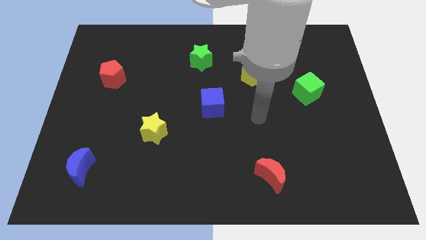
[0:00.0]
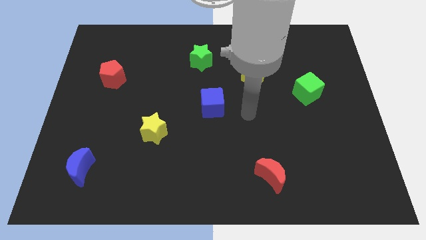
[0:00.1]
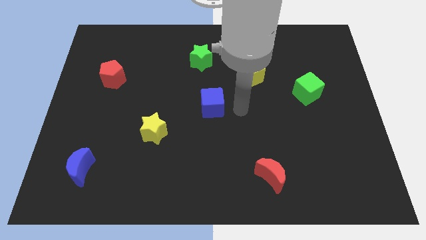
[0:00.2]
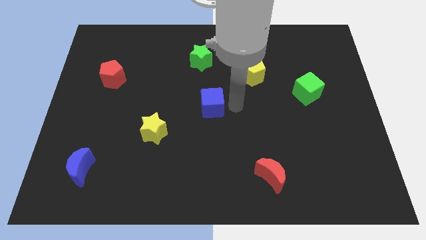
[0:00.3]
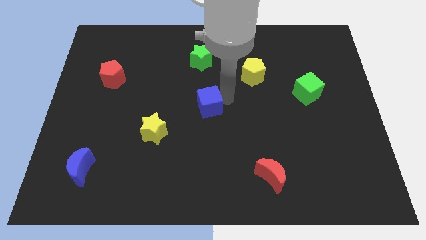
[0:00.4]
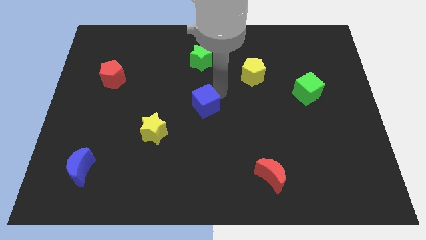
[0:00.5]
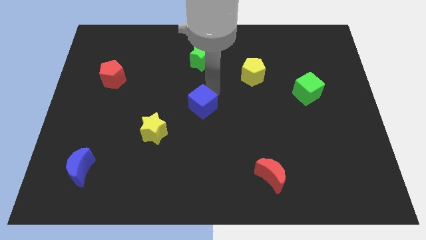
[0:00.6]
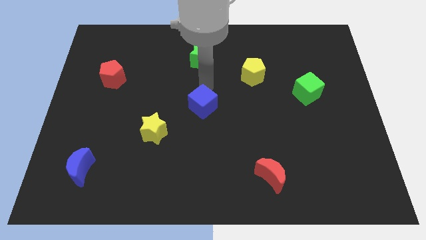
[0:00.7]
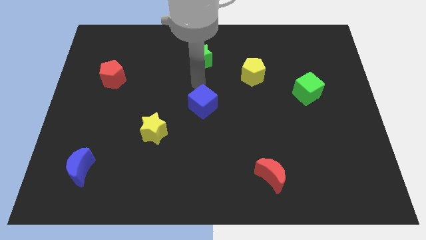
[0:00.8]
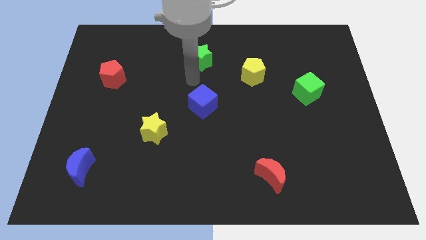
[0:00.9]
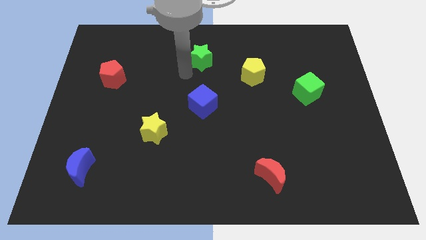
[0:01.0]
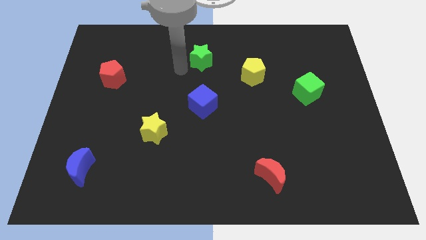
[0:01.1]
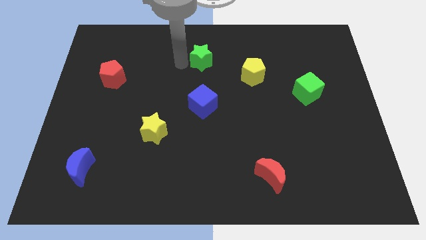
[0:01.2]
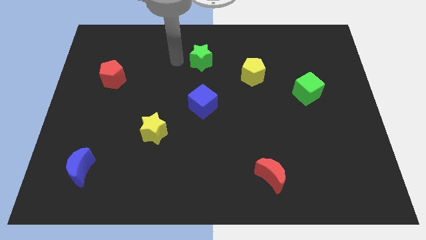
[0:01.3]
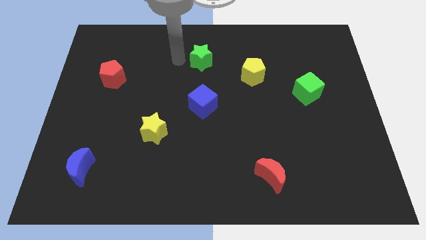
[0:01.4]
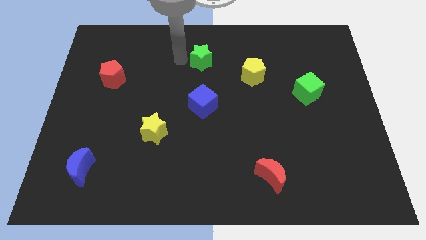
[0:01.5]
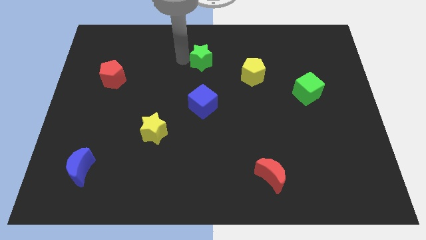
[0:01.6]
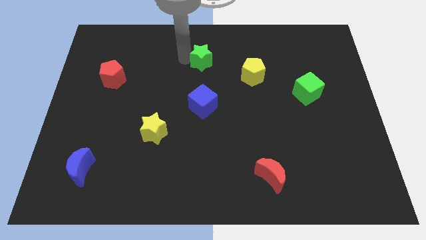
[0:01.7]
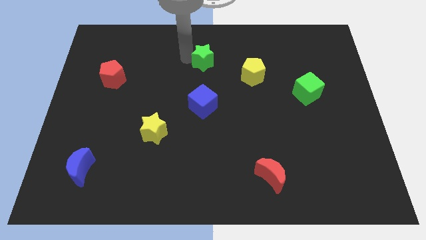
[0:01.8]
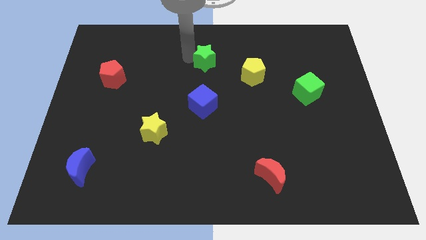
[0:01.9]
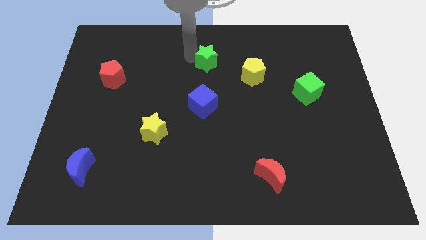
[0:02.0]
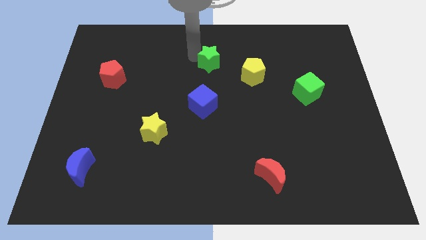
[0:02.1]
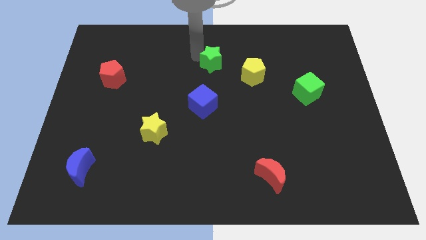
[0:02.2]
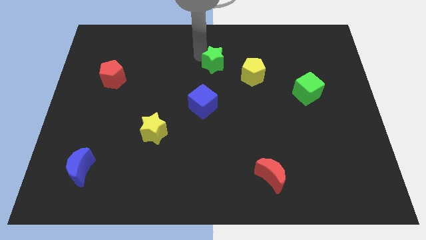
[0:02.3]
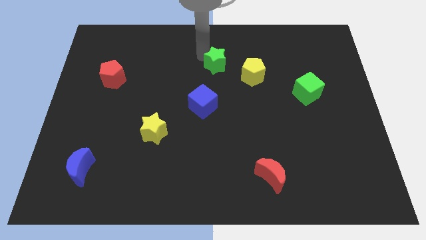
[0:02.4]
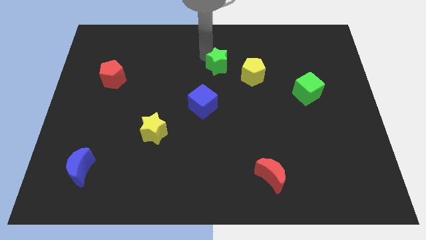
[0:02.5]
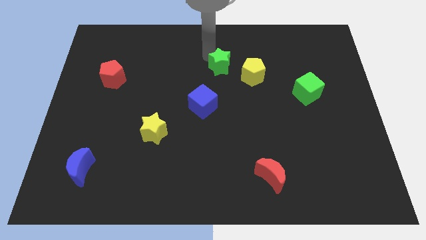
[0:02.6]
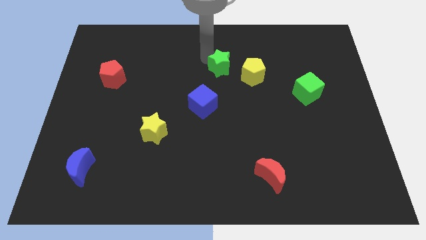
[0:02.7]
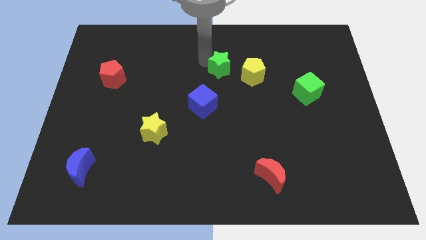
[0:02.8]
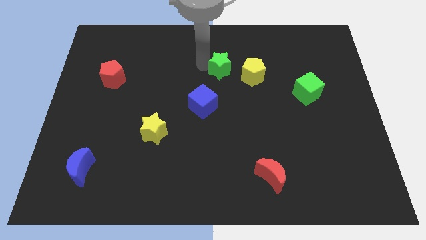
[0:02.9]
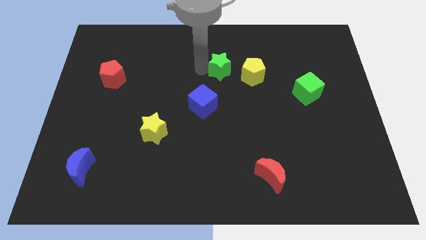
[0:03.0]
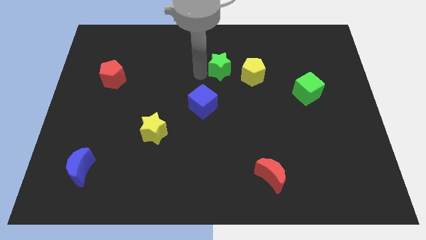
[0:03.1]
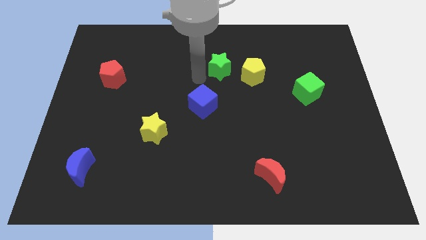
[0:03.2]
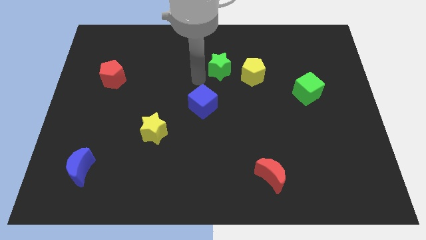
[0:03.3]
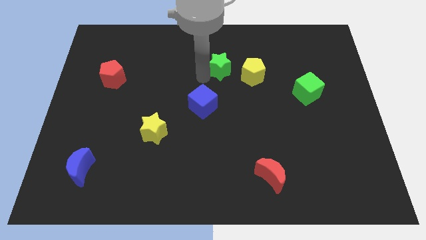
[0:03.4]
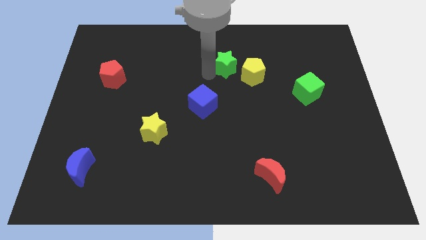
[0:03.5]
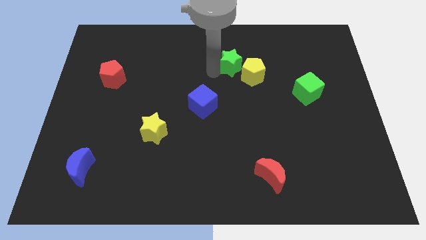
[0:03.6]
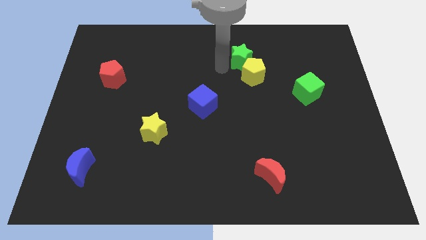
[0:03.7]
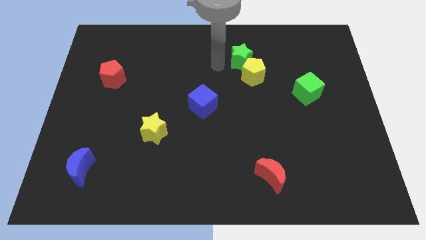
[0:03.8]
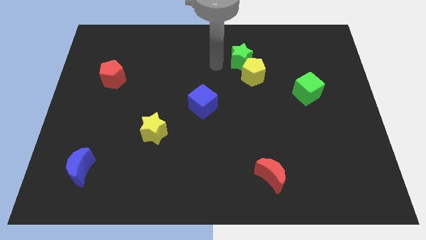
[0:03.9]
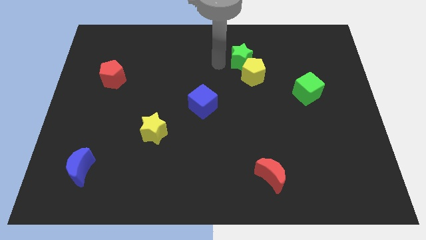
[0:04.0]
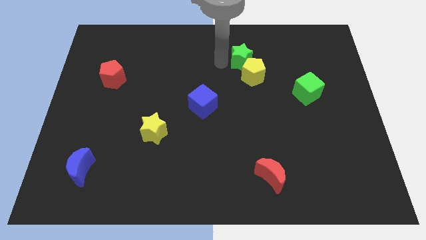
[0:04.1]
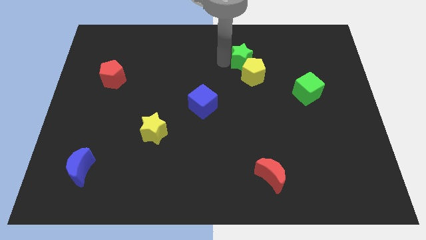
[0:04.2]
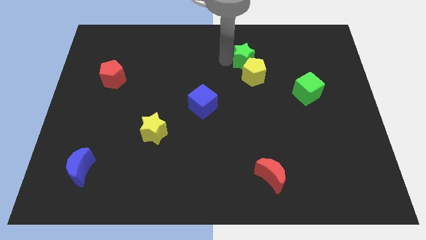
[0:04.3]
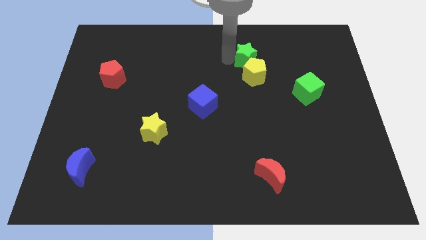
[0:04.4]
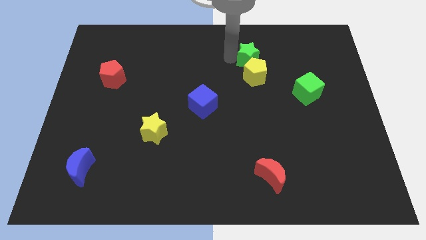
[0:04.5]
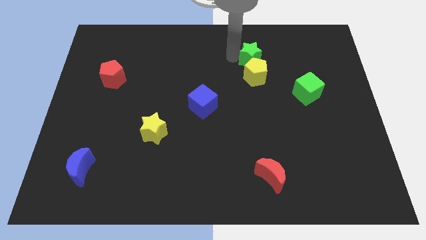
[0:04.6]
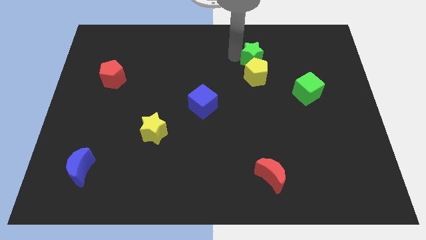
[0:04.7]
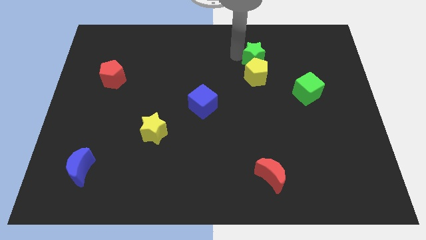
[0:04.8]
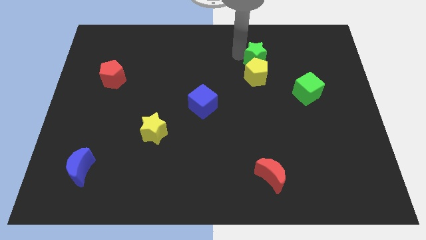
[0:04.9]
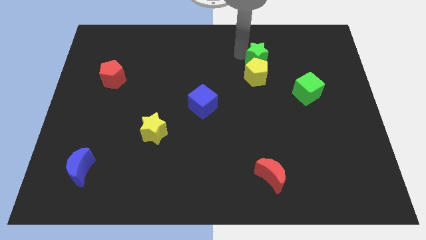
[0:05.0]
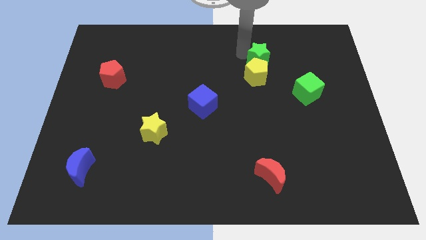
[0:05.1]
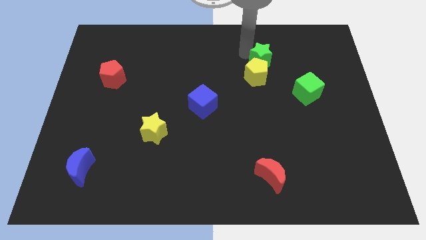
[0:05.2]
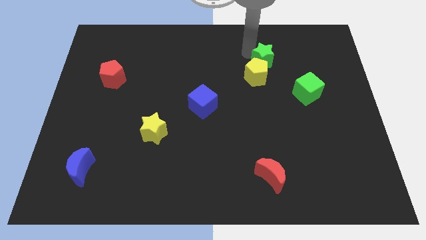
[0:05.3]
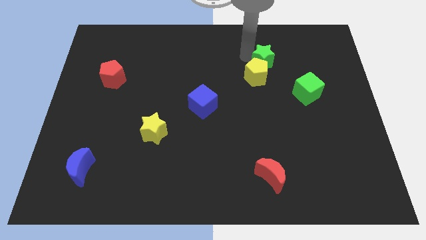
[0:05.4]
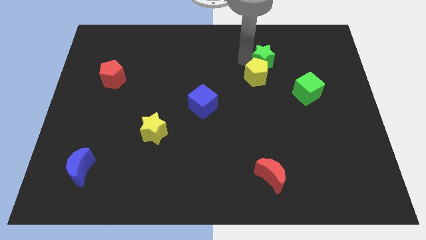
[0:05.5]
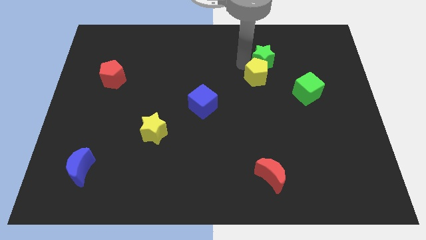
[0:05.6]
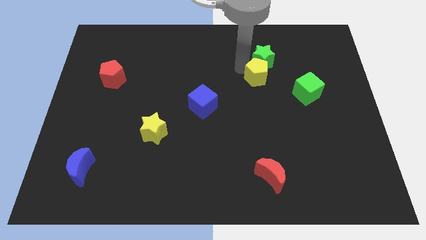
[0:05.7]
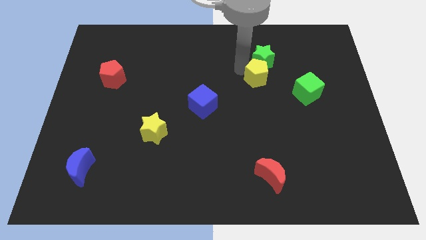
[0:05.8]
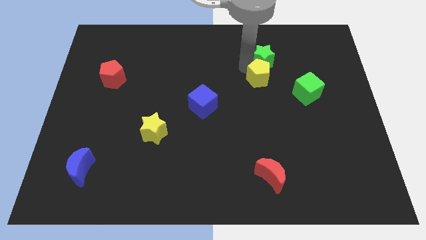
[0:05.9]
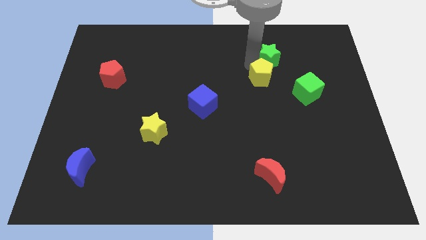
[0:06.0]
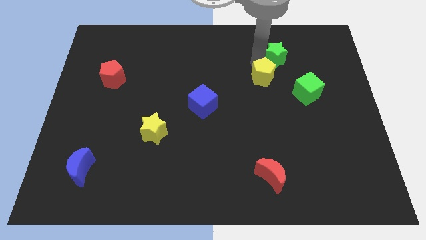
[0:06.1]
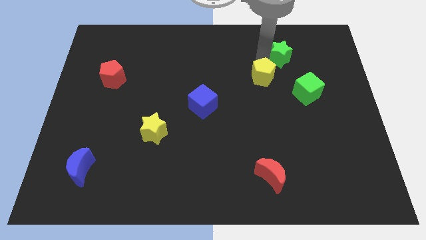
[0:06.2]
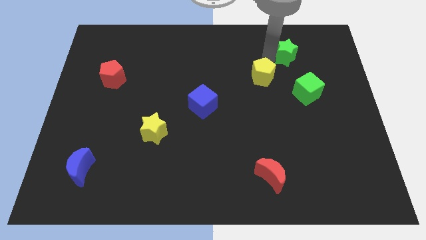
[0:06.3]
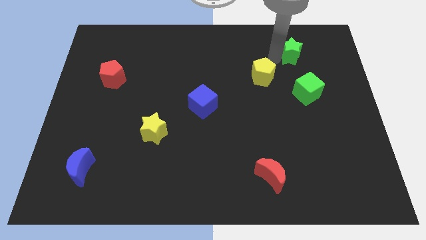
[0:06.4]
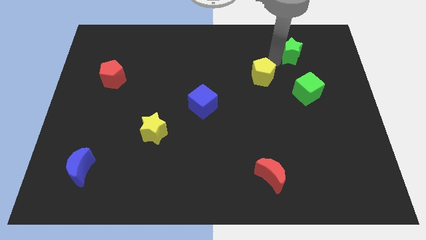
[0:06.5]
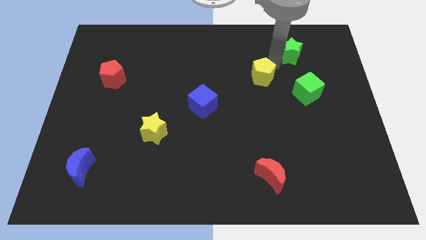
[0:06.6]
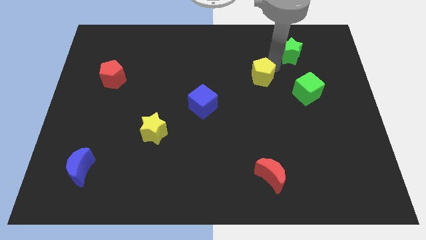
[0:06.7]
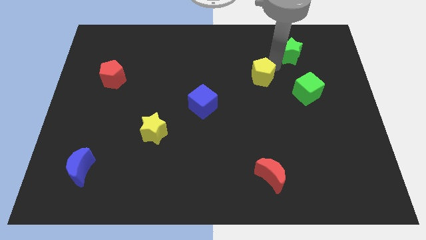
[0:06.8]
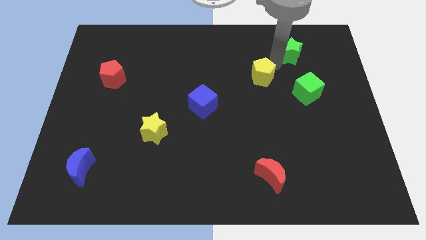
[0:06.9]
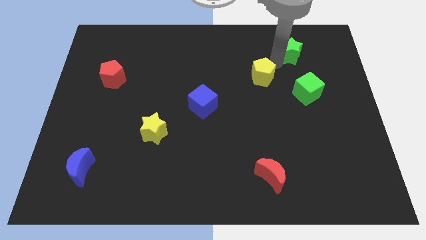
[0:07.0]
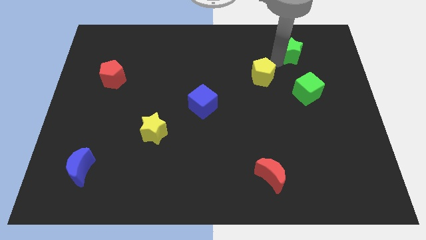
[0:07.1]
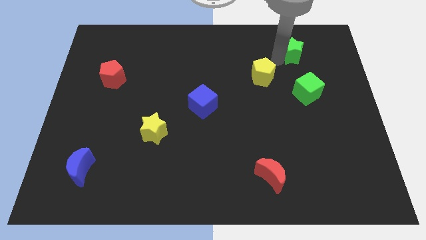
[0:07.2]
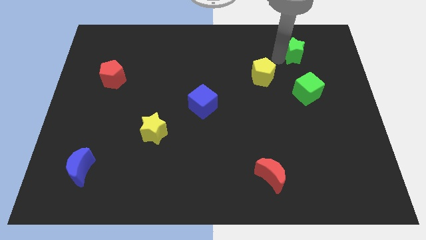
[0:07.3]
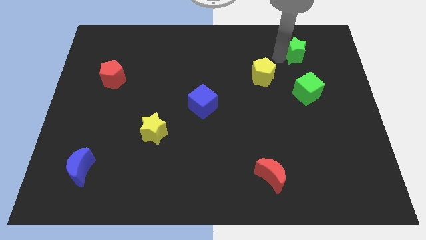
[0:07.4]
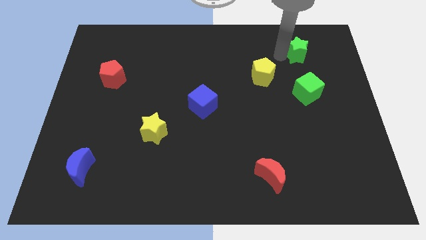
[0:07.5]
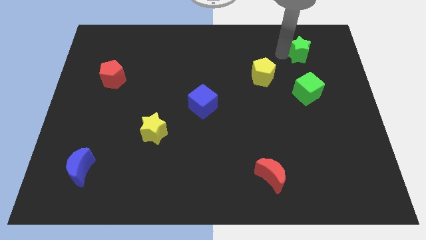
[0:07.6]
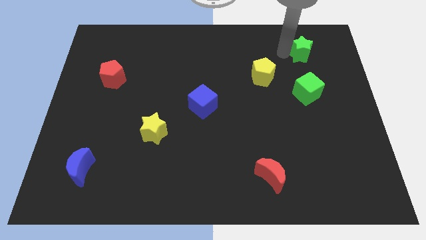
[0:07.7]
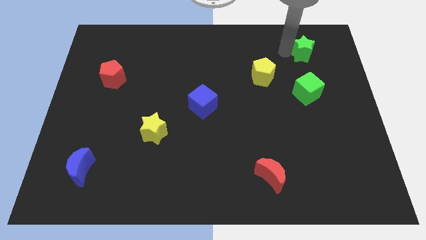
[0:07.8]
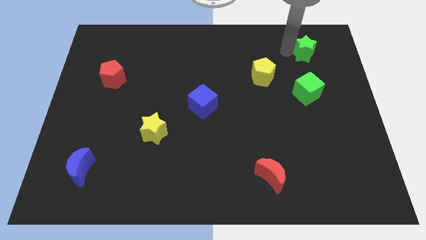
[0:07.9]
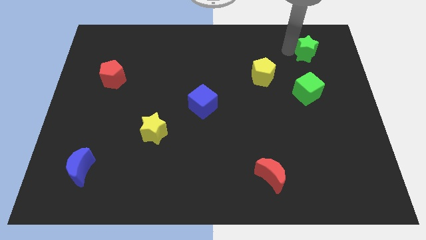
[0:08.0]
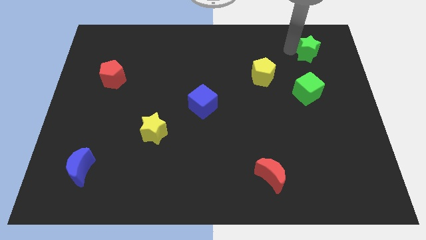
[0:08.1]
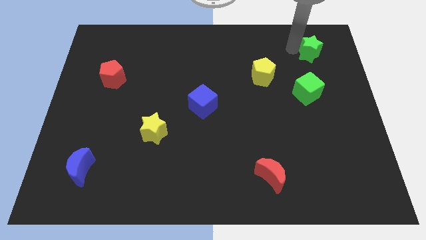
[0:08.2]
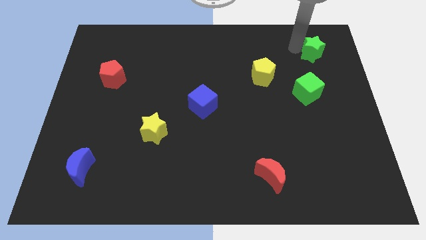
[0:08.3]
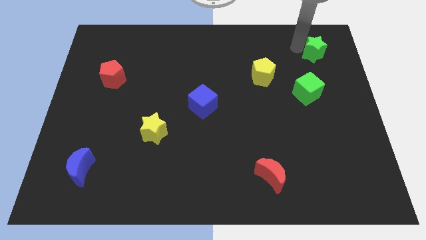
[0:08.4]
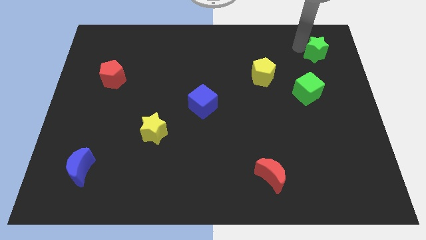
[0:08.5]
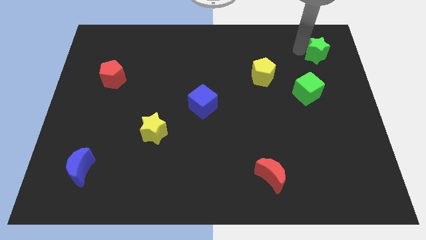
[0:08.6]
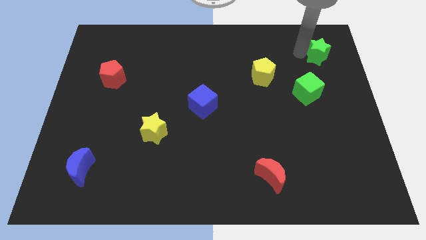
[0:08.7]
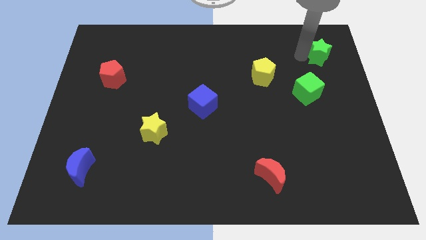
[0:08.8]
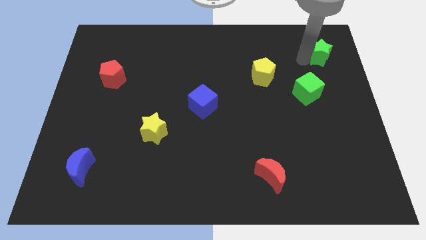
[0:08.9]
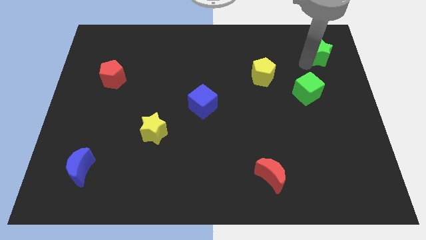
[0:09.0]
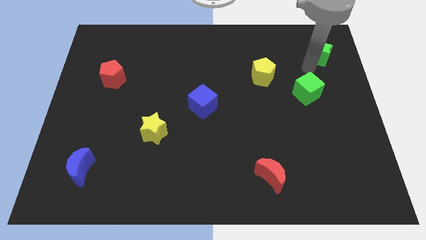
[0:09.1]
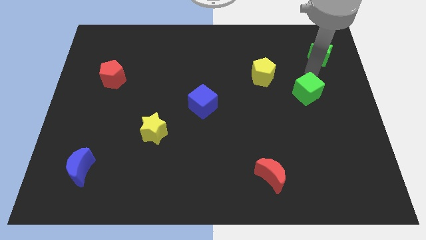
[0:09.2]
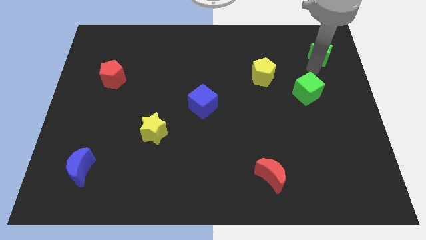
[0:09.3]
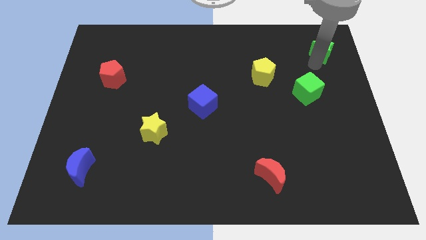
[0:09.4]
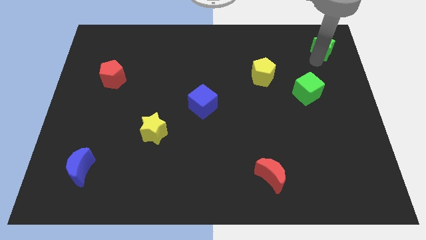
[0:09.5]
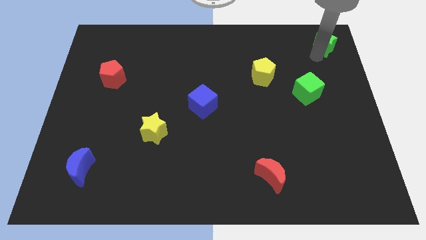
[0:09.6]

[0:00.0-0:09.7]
slide the green star to the upper right corner
